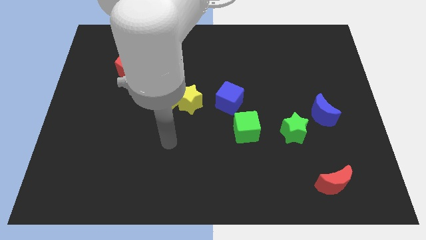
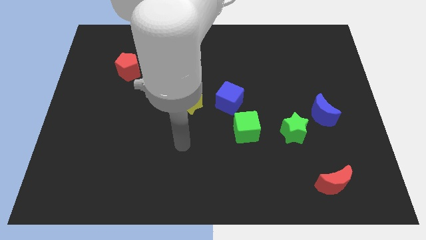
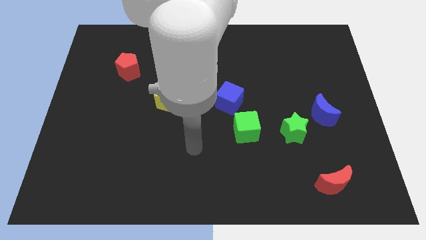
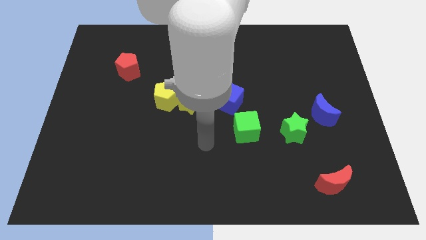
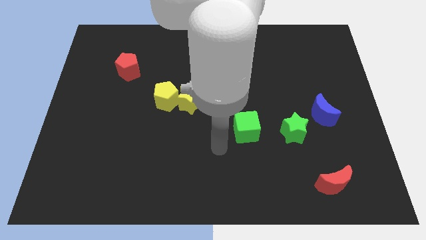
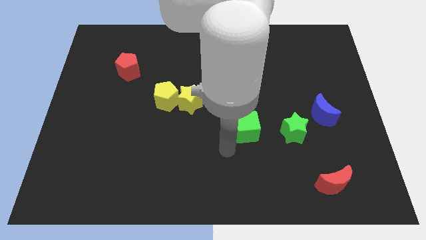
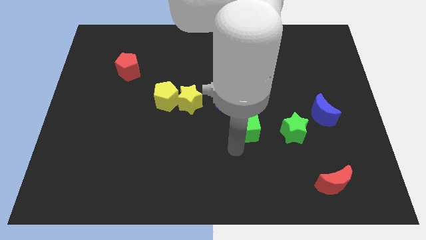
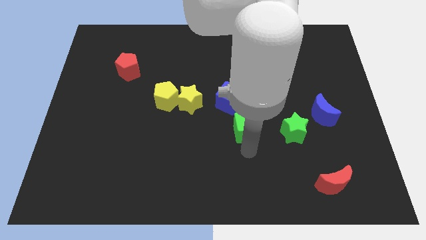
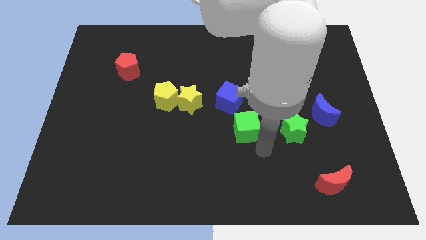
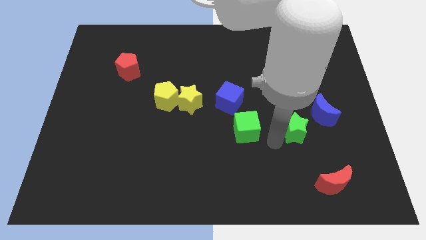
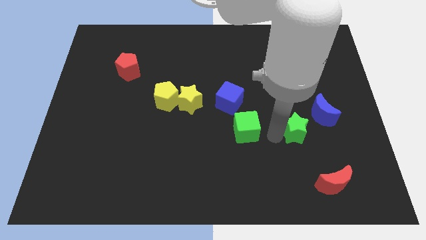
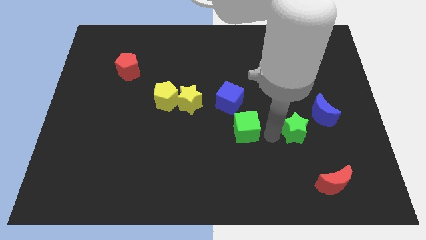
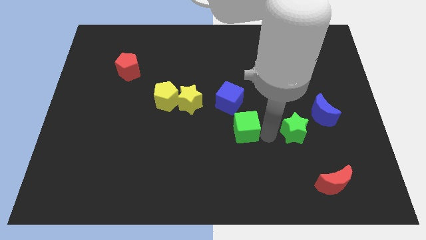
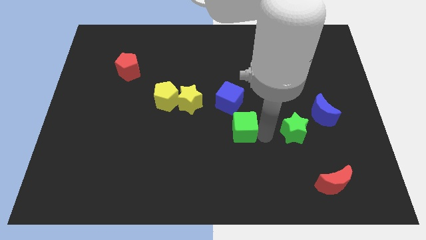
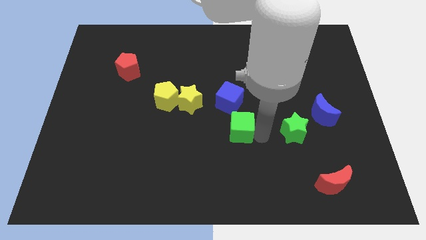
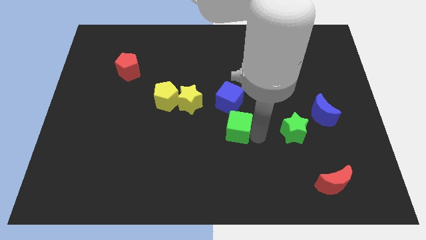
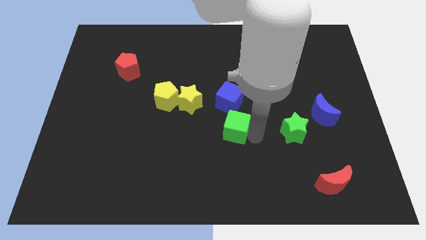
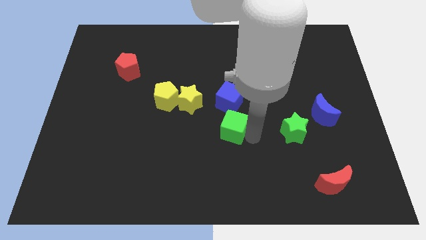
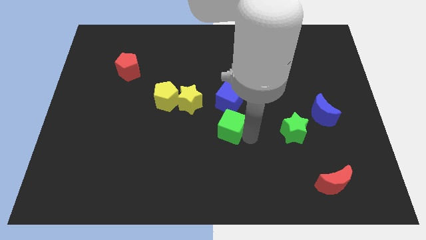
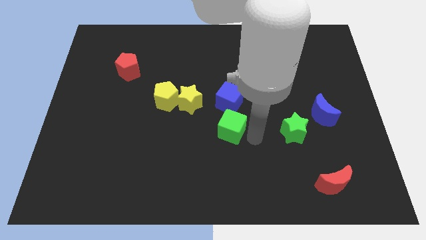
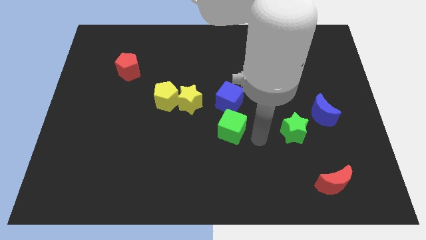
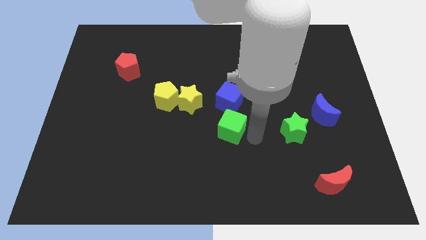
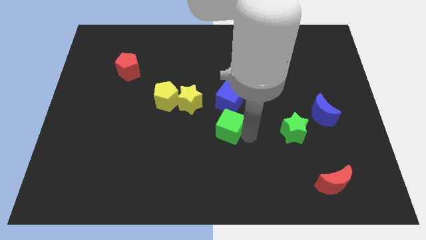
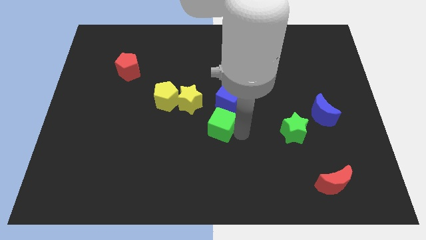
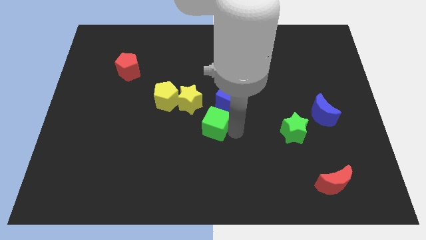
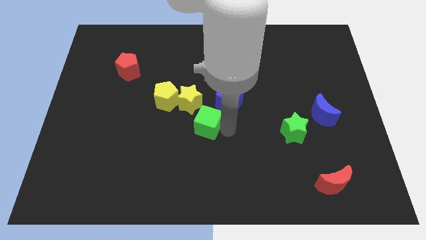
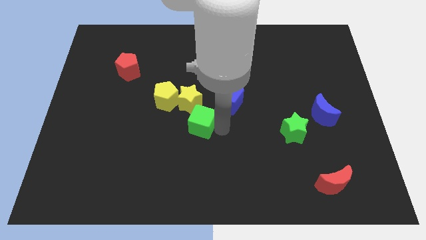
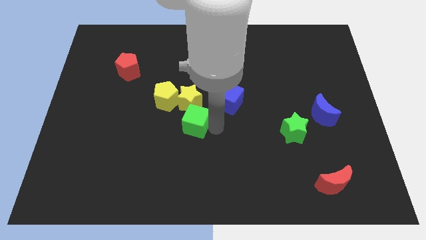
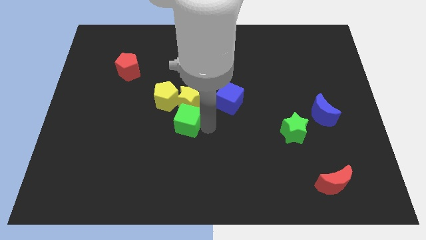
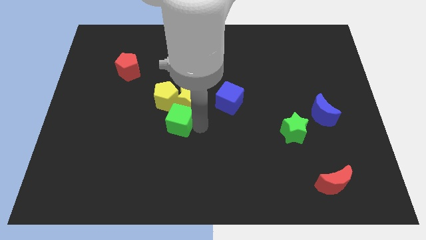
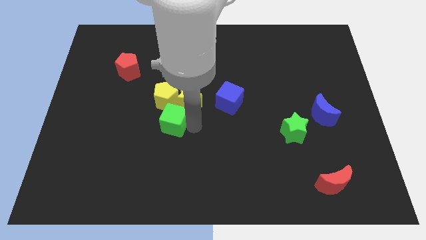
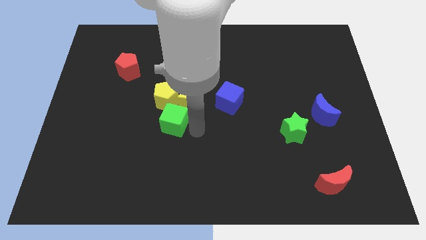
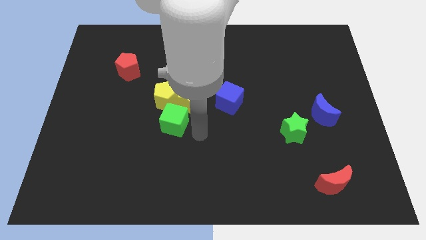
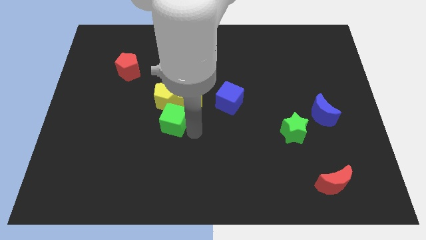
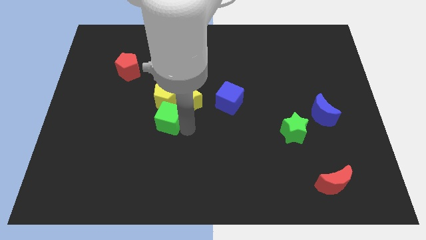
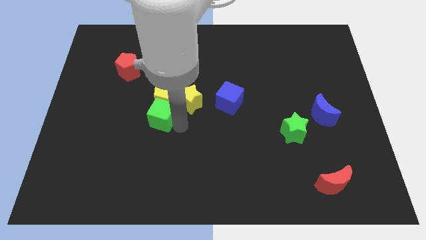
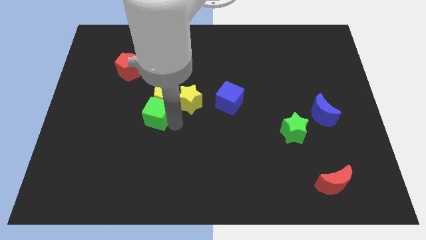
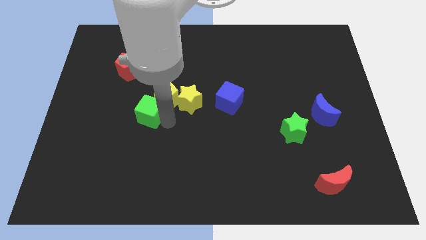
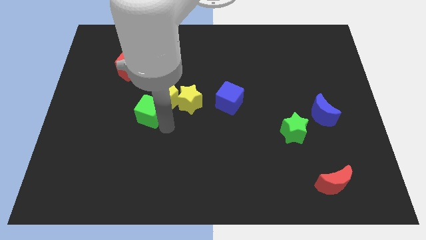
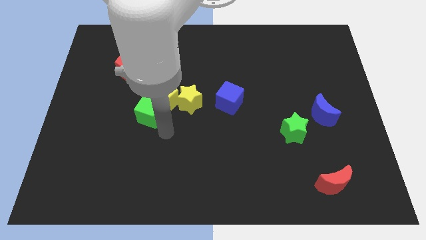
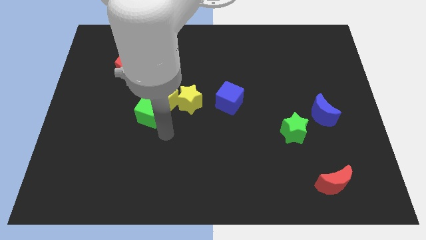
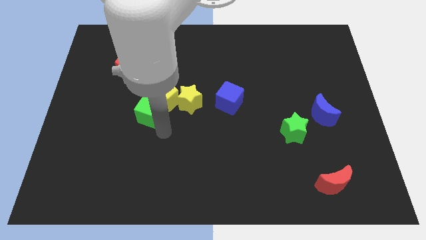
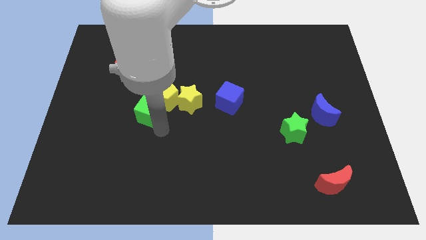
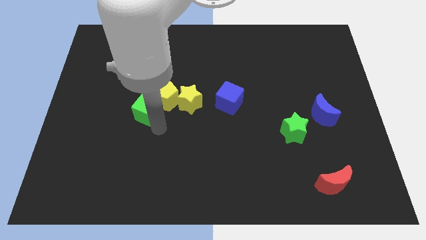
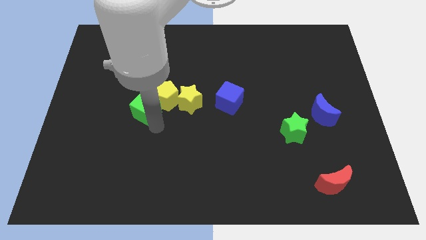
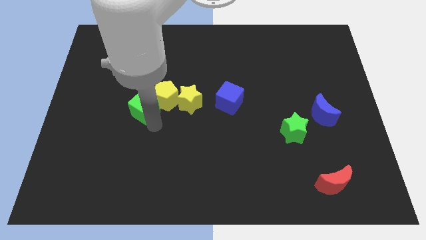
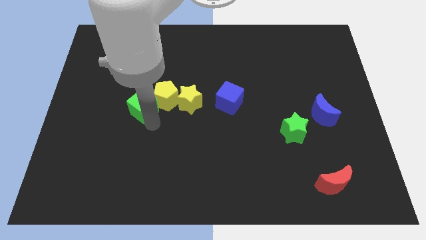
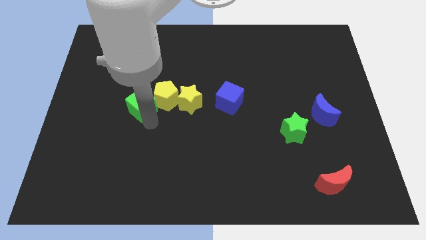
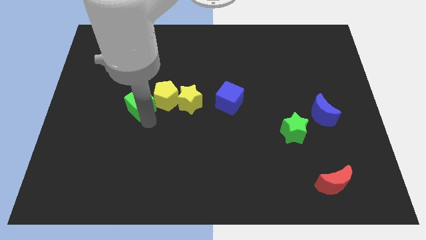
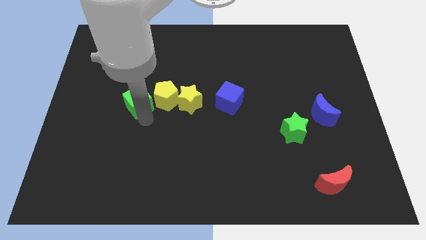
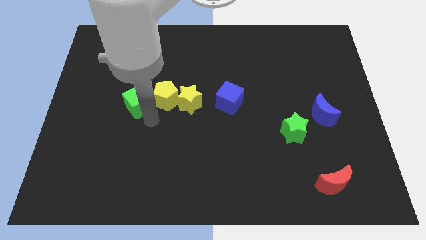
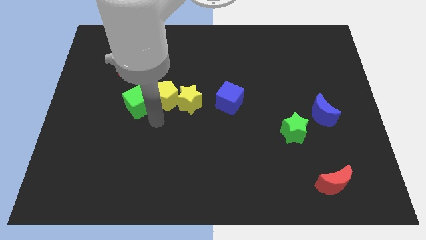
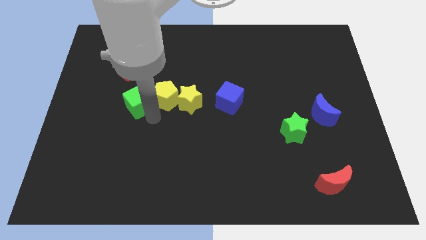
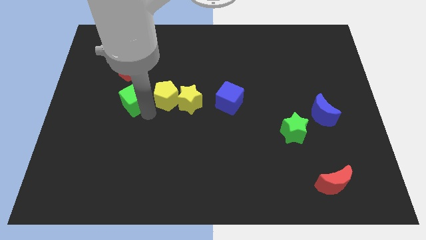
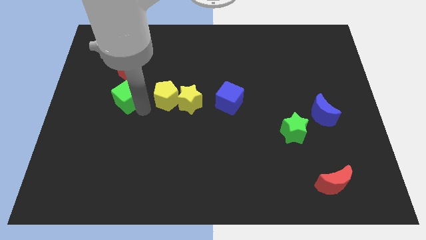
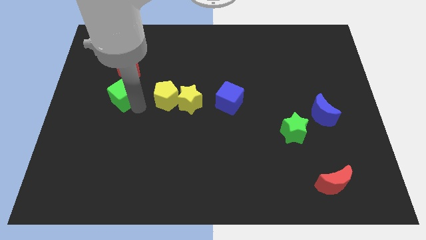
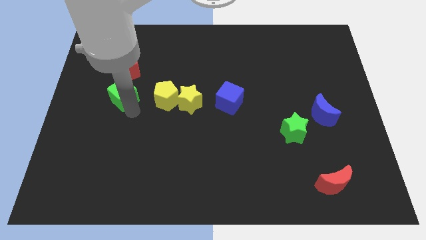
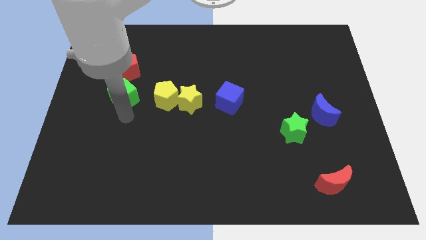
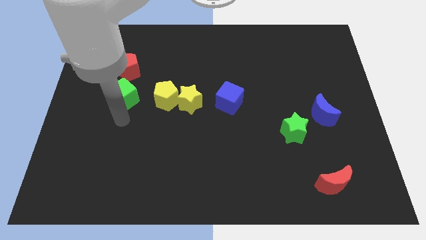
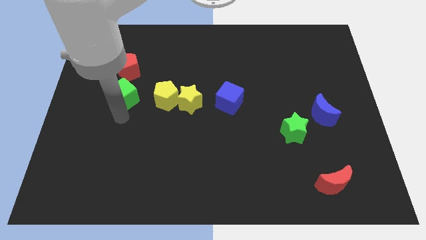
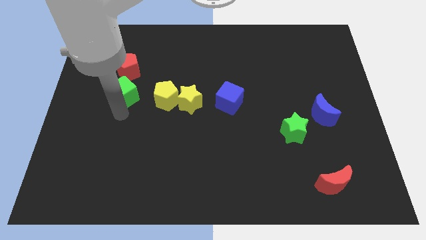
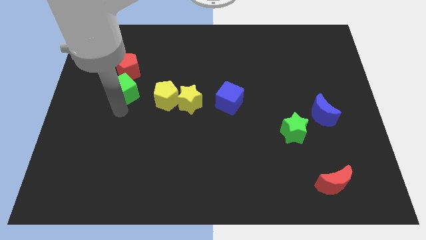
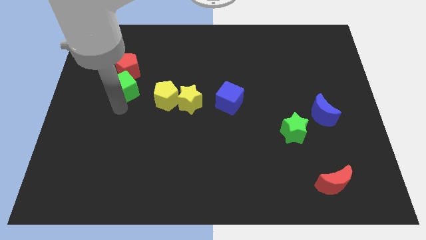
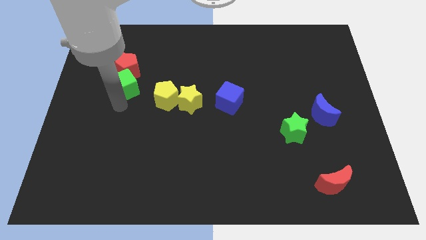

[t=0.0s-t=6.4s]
push the green cube to the red pentagon

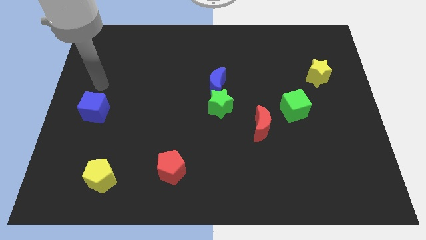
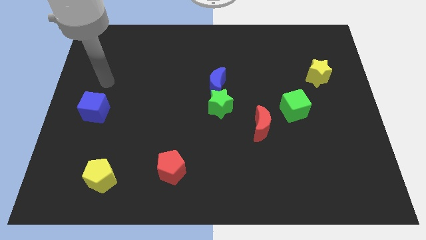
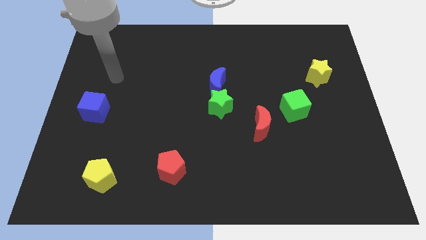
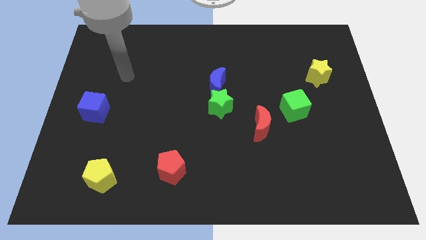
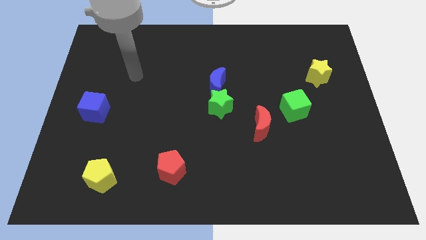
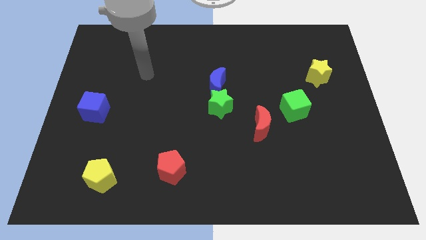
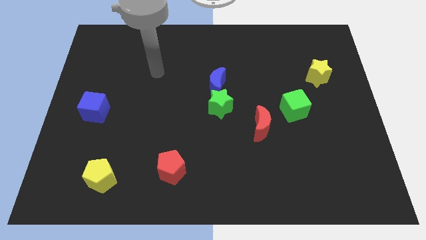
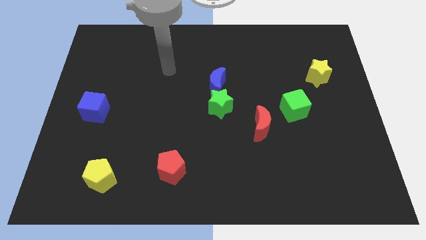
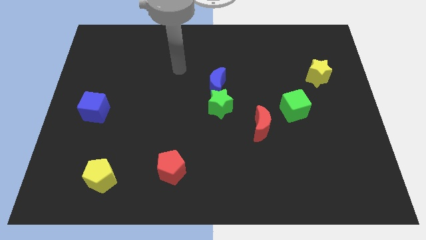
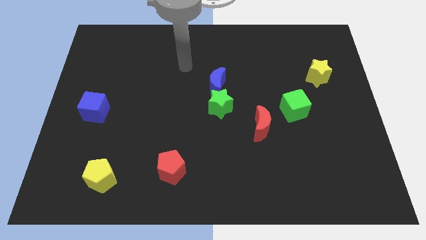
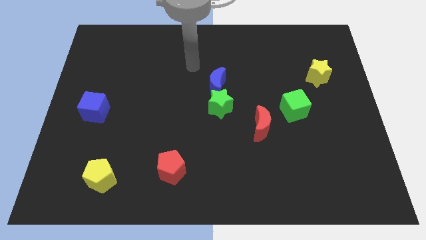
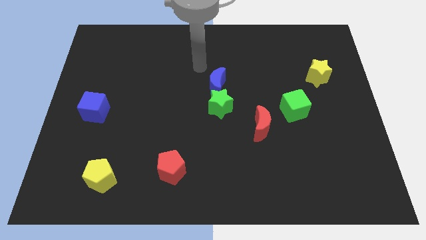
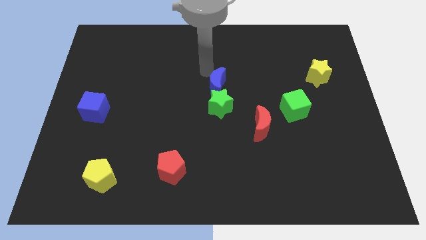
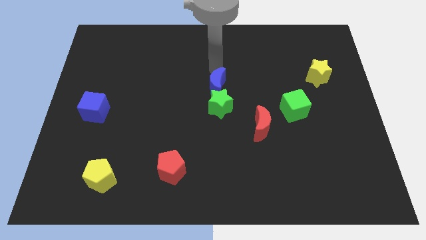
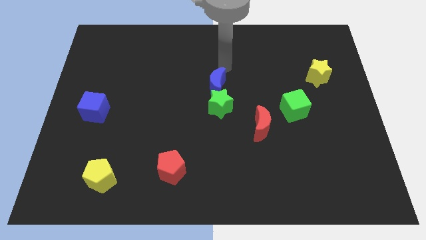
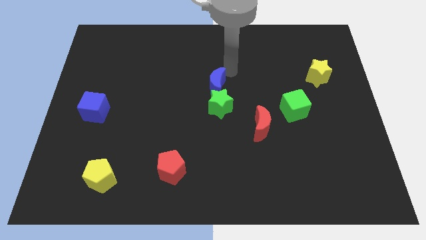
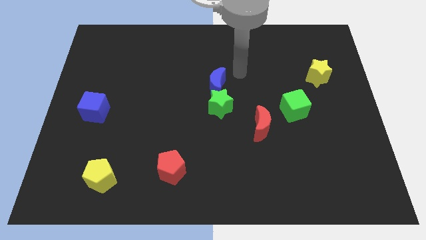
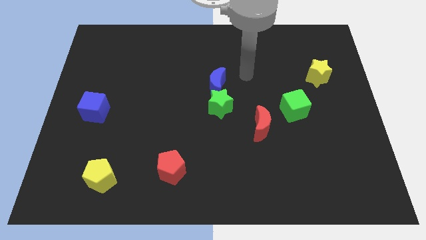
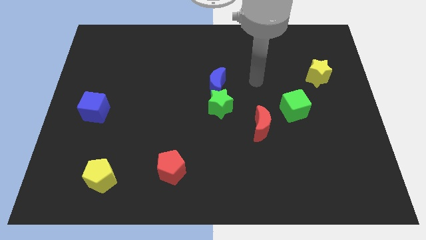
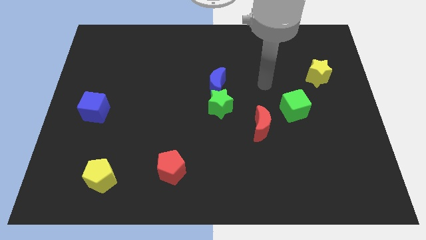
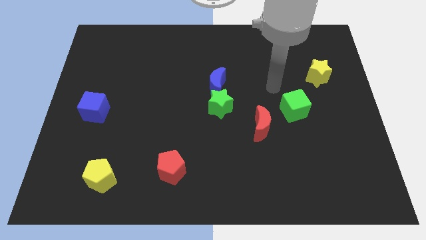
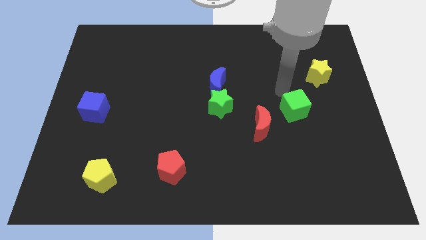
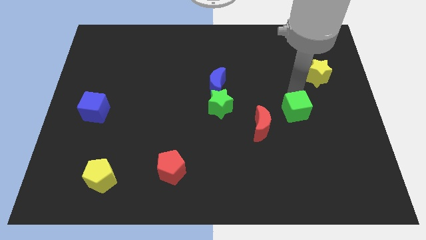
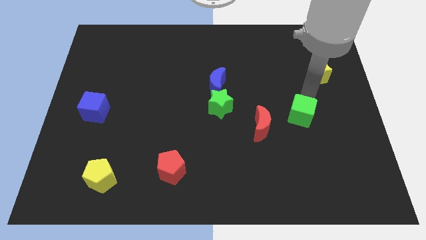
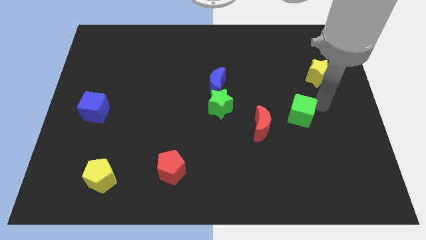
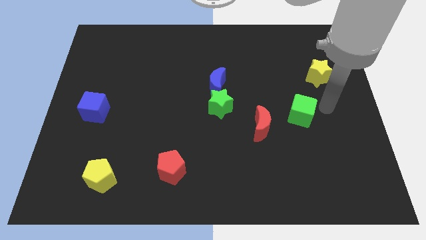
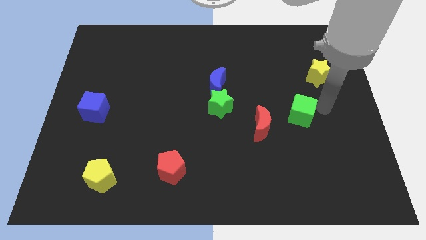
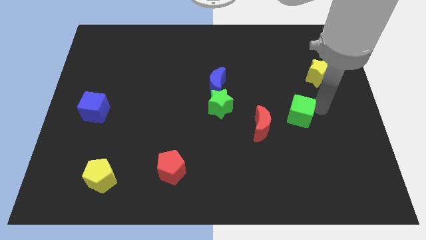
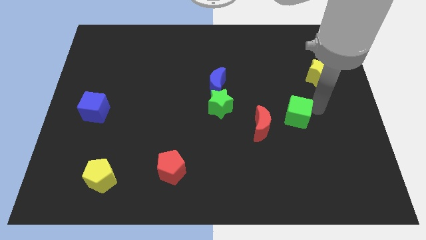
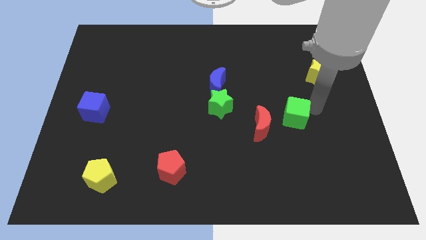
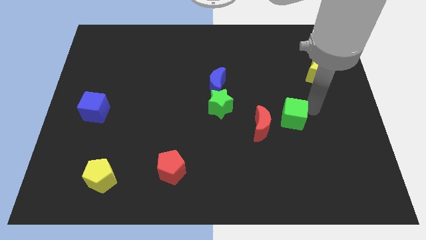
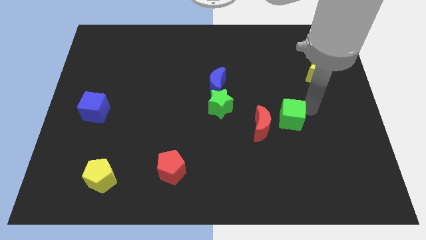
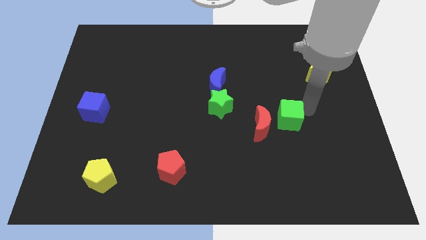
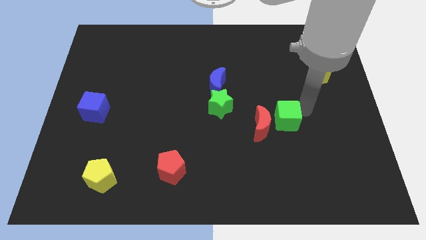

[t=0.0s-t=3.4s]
slide the green cube close to the red moon
